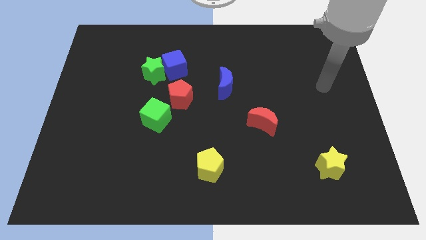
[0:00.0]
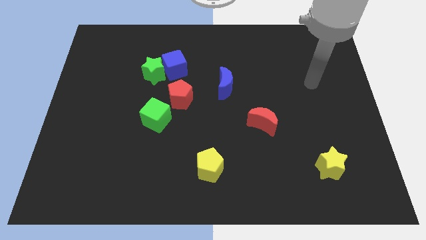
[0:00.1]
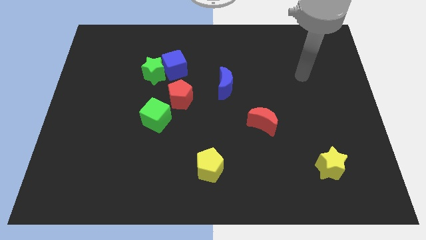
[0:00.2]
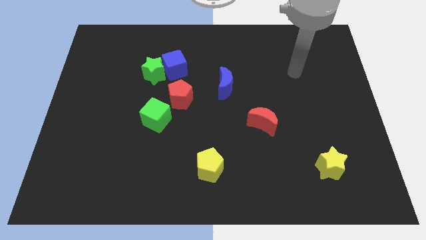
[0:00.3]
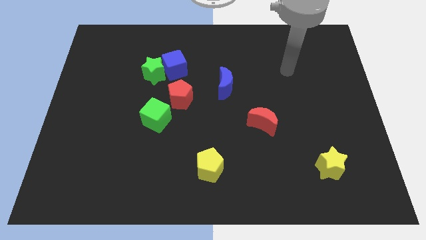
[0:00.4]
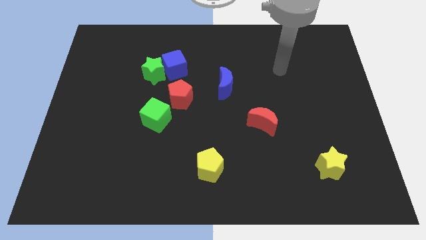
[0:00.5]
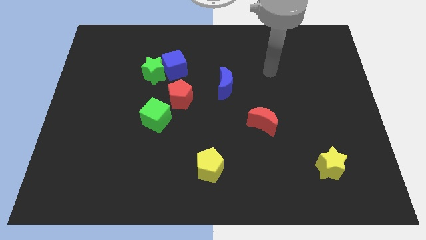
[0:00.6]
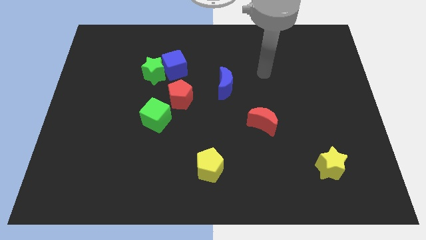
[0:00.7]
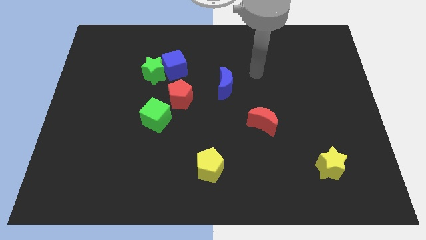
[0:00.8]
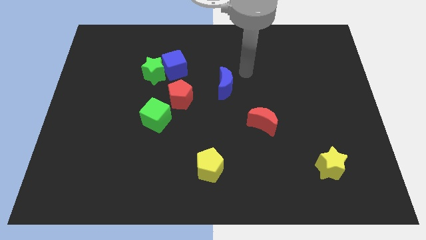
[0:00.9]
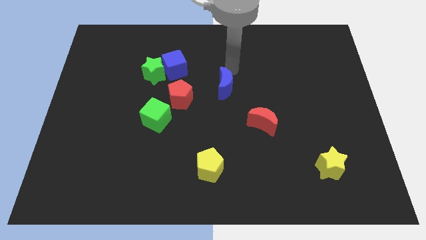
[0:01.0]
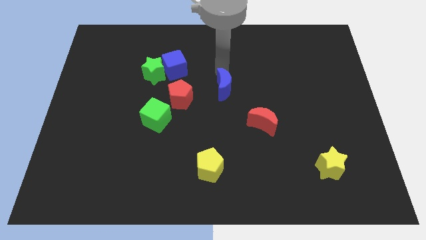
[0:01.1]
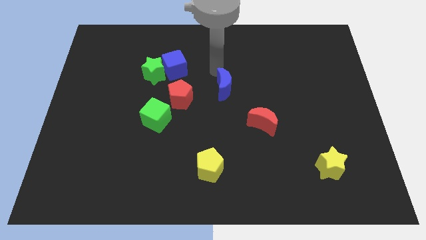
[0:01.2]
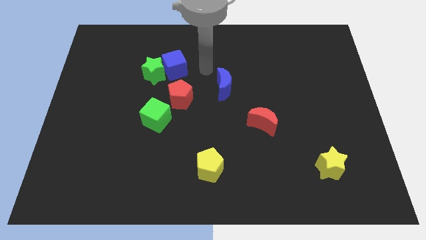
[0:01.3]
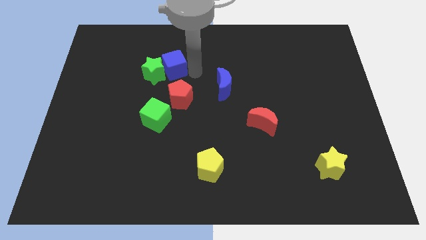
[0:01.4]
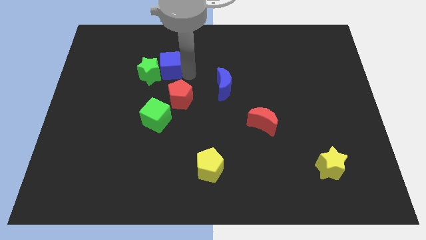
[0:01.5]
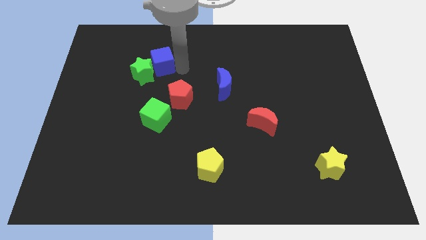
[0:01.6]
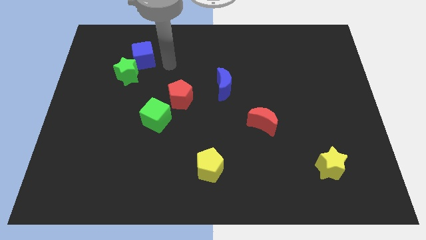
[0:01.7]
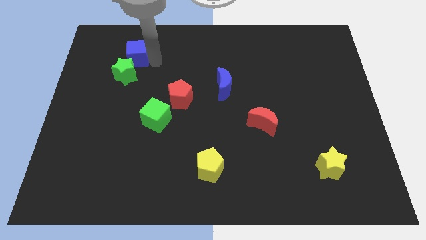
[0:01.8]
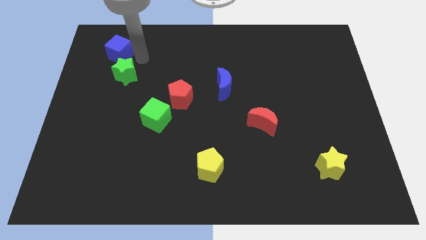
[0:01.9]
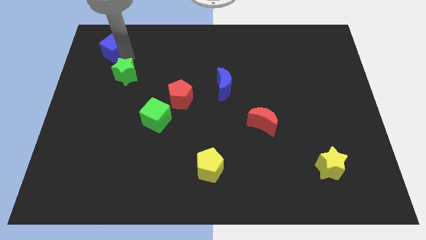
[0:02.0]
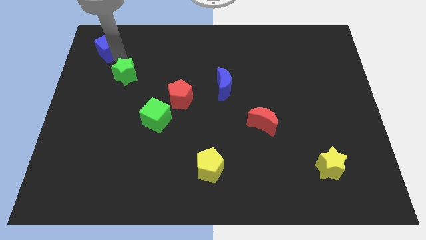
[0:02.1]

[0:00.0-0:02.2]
pull the green star apart from the blue cube

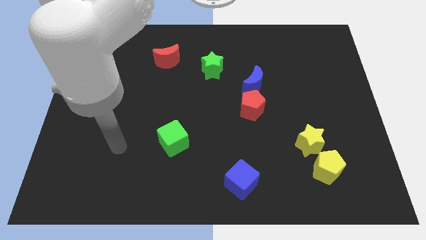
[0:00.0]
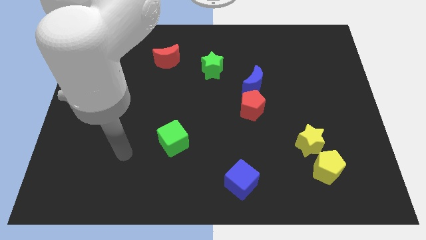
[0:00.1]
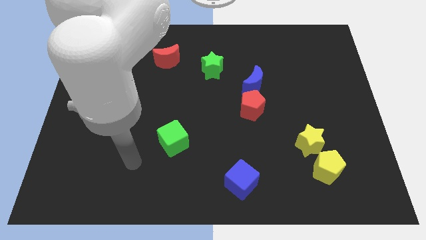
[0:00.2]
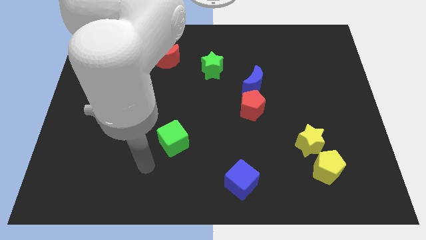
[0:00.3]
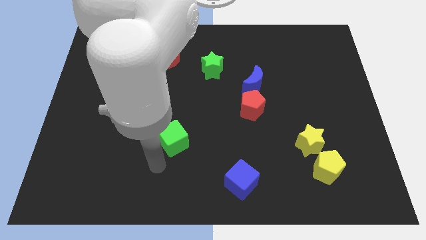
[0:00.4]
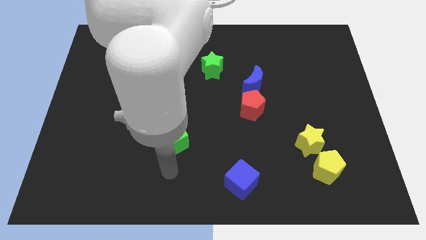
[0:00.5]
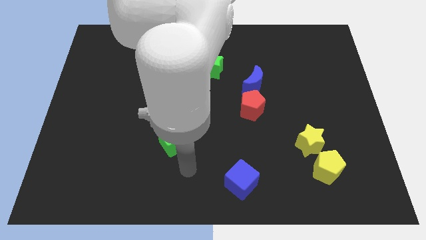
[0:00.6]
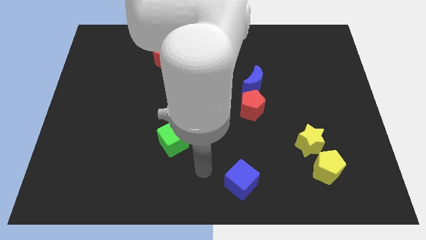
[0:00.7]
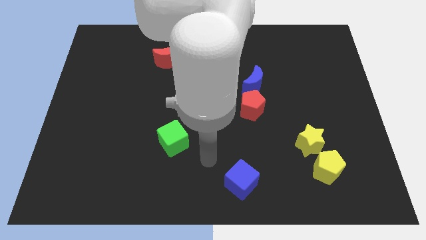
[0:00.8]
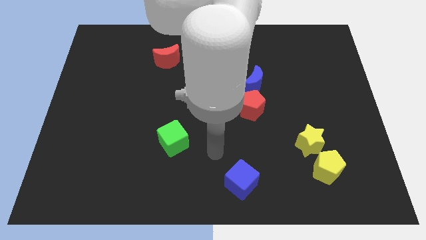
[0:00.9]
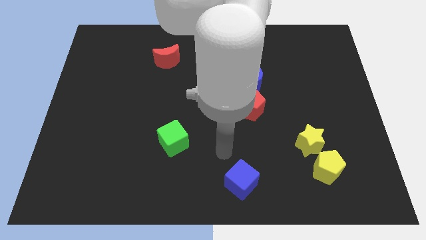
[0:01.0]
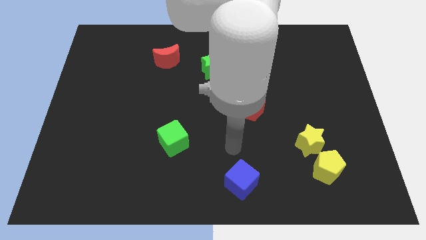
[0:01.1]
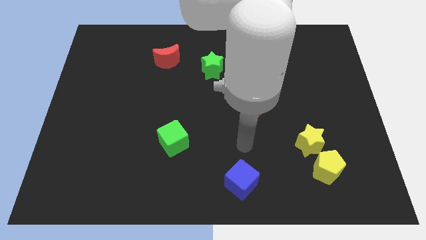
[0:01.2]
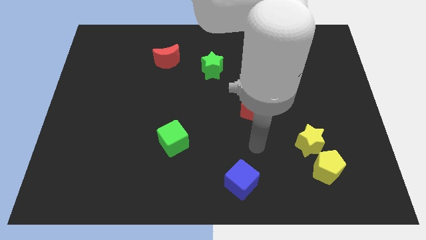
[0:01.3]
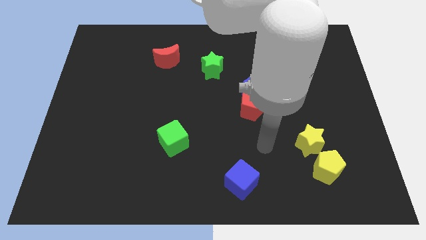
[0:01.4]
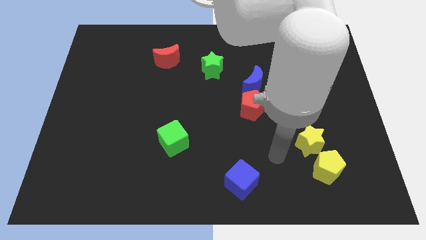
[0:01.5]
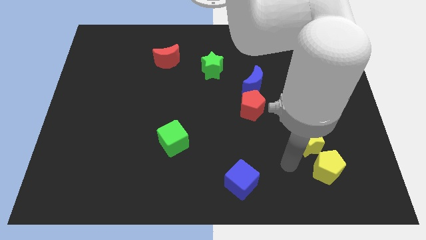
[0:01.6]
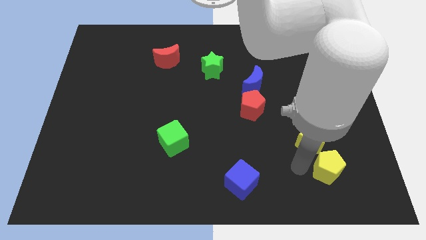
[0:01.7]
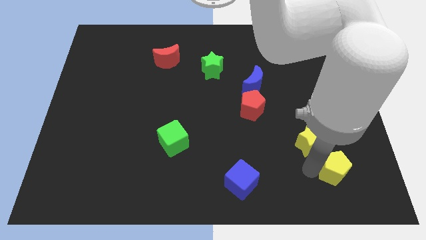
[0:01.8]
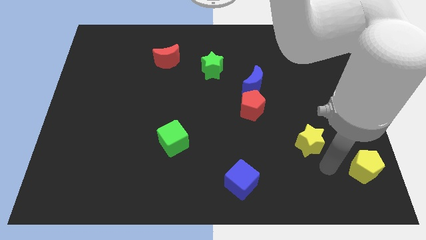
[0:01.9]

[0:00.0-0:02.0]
pull the yellow star apart from the yellow pentagon

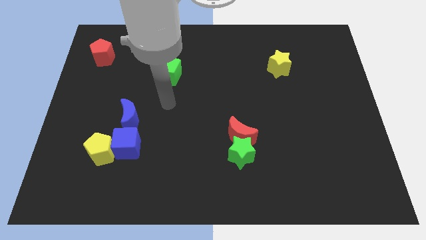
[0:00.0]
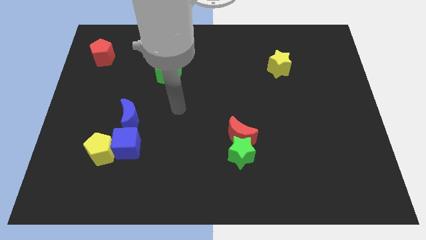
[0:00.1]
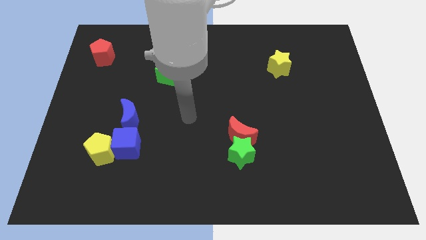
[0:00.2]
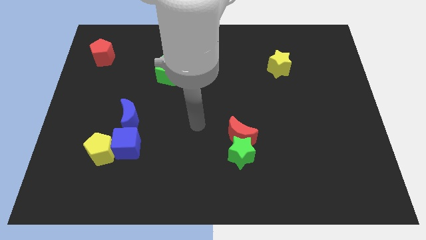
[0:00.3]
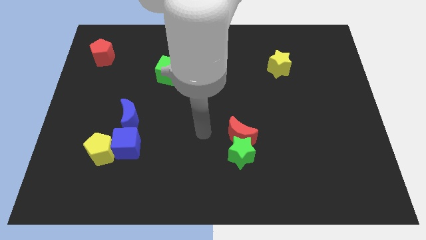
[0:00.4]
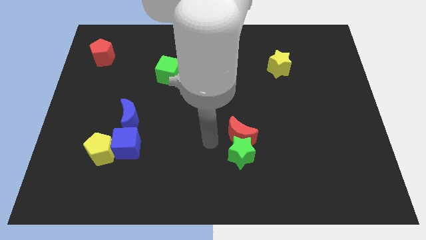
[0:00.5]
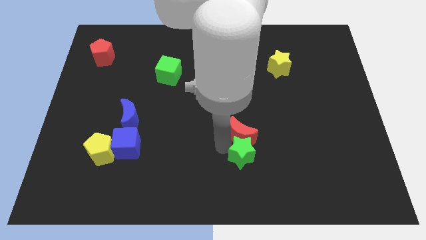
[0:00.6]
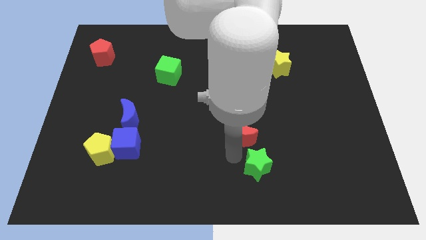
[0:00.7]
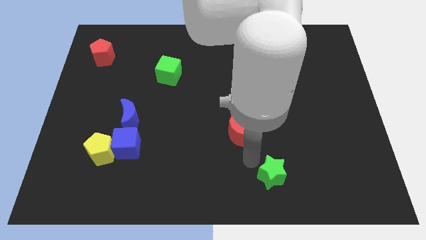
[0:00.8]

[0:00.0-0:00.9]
move the red moon away from the green star

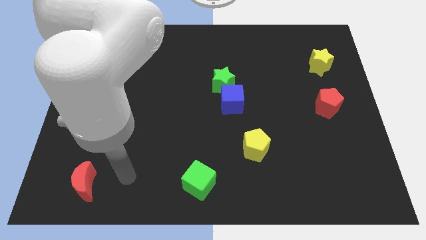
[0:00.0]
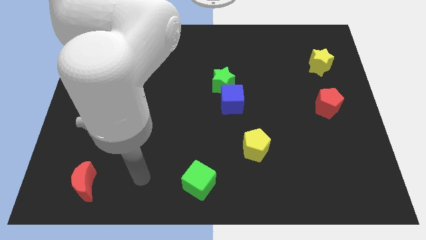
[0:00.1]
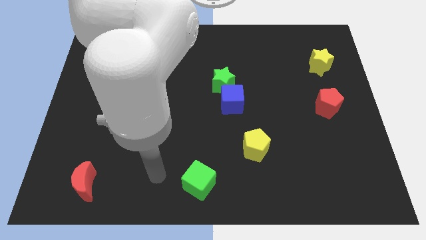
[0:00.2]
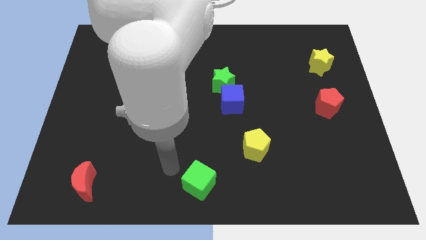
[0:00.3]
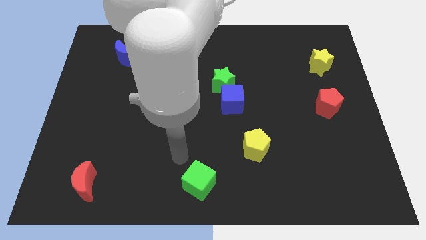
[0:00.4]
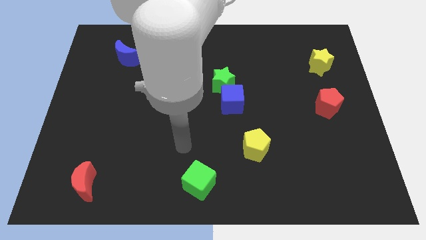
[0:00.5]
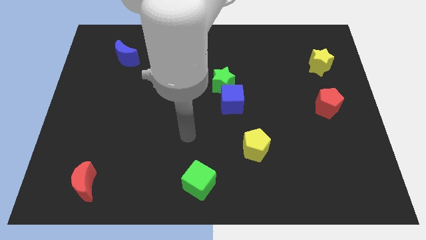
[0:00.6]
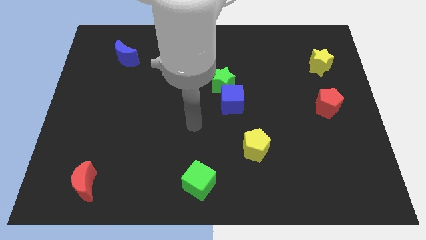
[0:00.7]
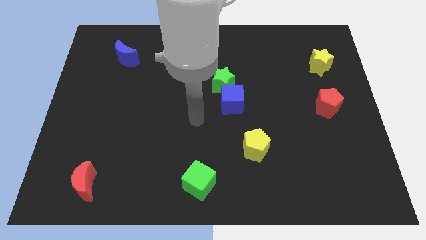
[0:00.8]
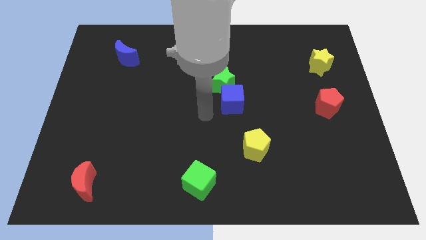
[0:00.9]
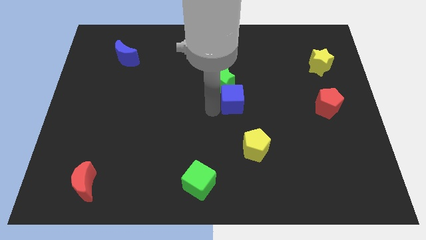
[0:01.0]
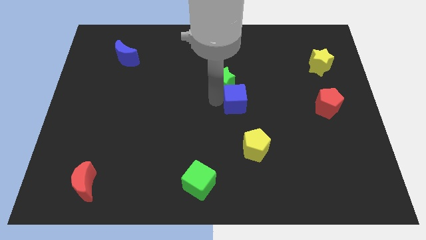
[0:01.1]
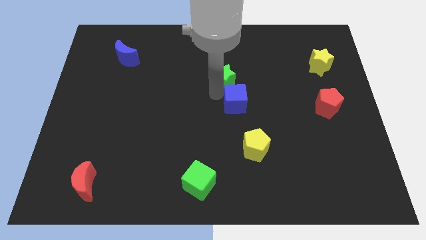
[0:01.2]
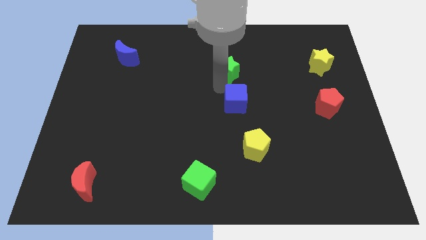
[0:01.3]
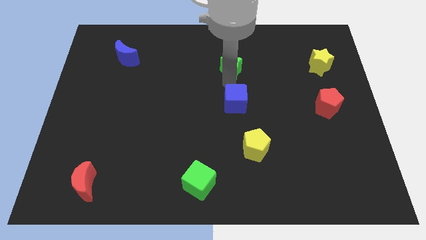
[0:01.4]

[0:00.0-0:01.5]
separate the blue cube from the green star

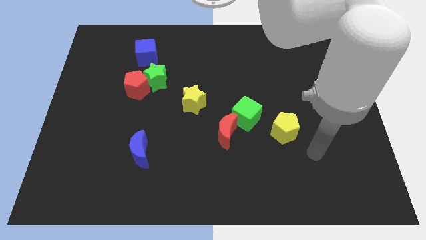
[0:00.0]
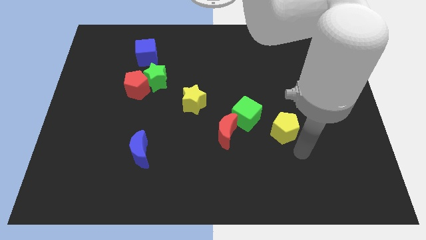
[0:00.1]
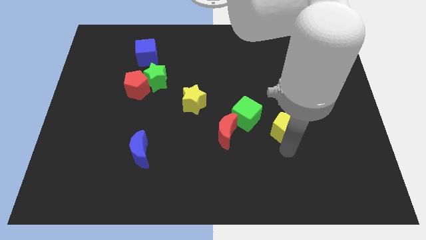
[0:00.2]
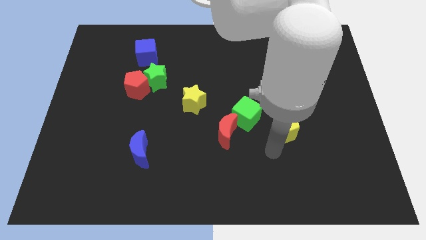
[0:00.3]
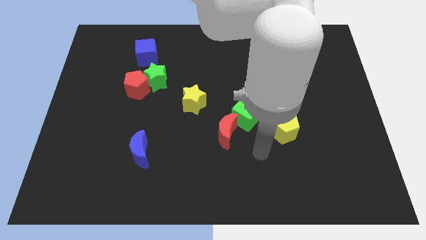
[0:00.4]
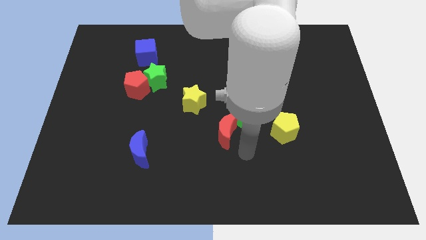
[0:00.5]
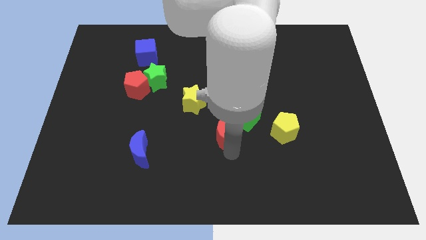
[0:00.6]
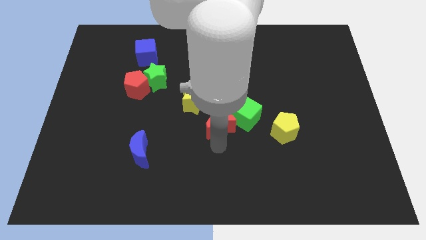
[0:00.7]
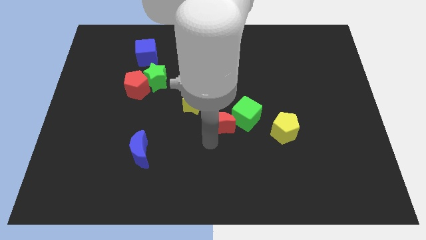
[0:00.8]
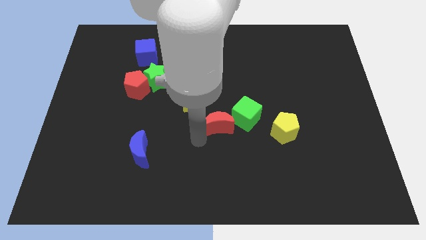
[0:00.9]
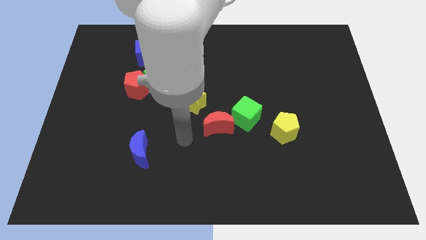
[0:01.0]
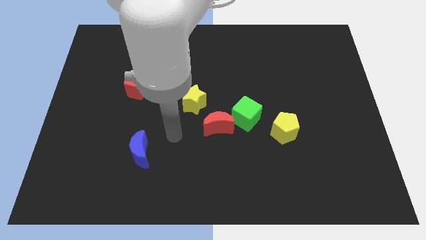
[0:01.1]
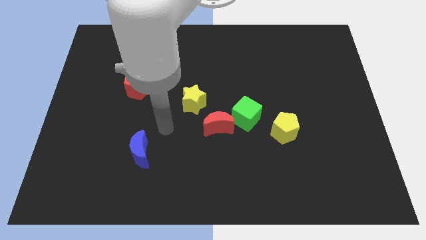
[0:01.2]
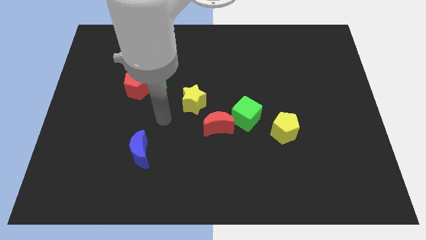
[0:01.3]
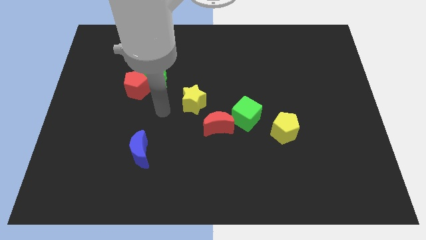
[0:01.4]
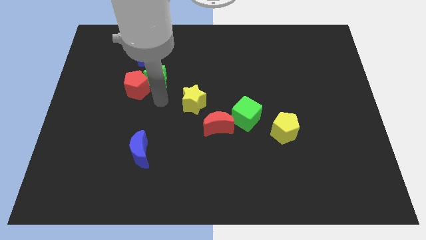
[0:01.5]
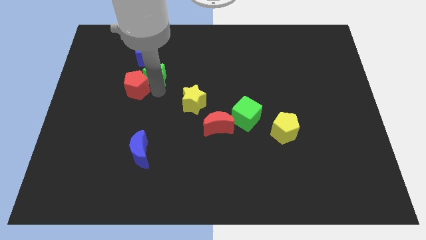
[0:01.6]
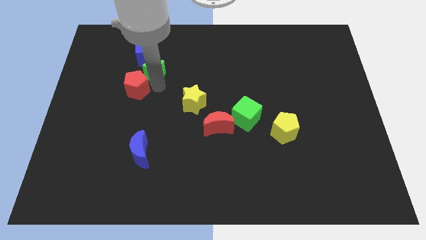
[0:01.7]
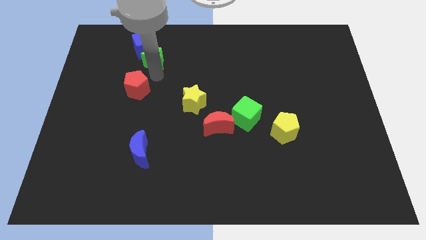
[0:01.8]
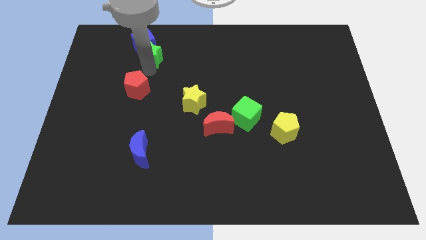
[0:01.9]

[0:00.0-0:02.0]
separate the red pentagon from the green star

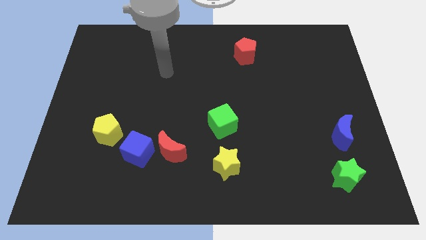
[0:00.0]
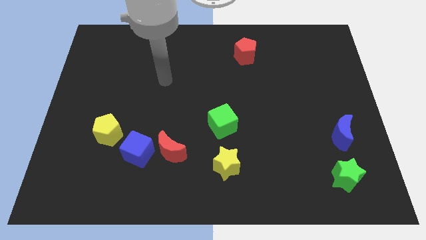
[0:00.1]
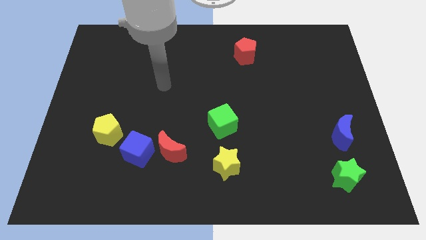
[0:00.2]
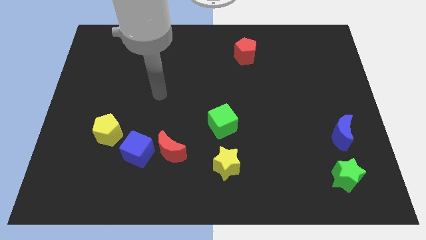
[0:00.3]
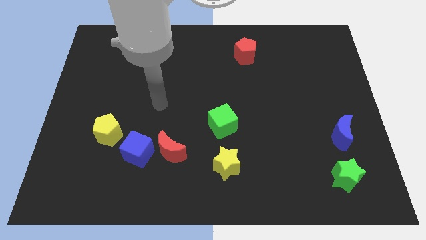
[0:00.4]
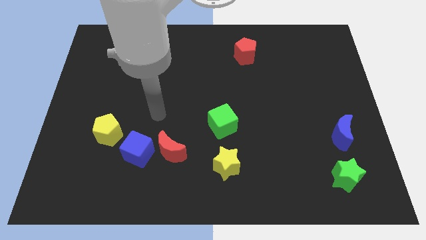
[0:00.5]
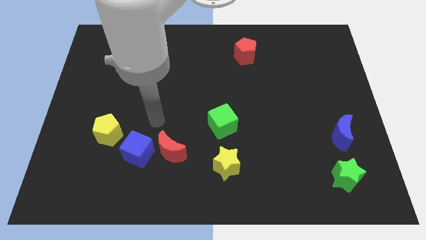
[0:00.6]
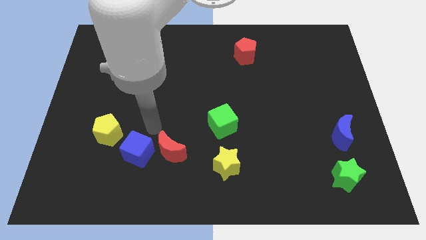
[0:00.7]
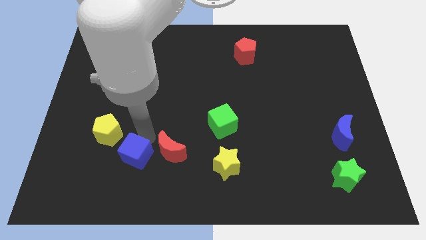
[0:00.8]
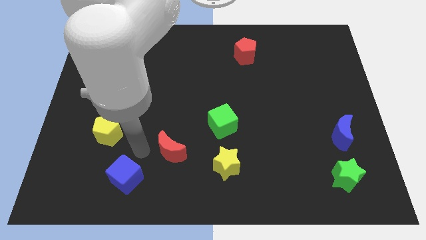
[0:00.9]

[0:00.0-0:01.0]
pull the red moon apart from the blue cube
